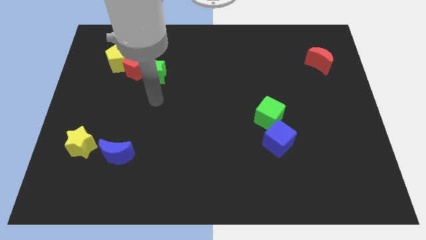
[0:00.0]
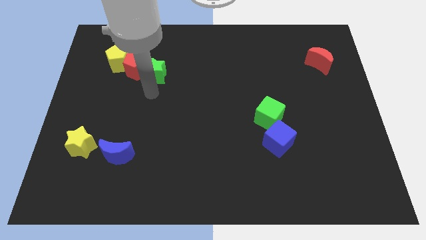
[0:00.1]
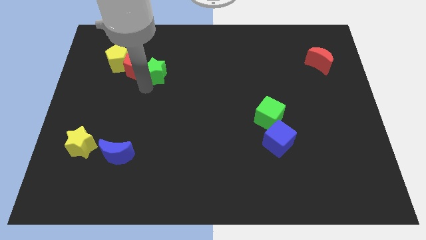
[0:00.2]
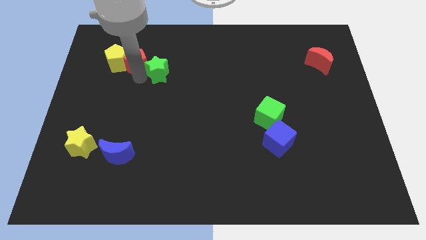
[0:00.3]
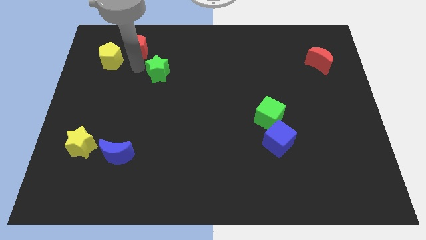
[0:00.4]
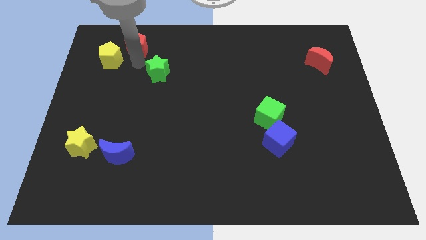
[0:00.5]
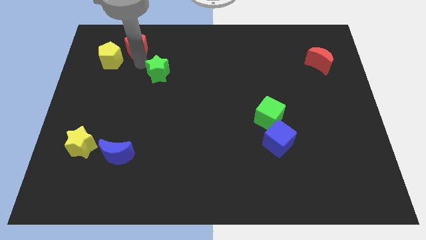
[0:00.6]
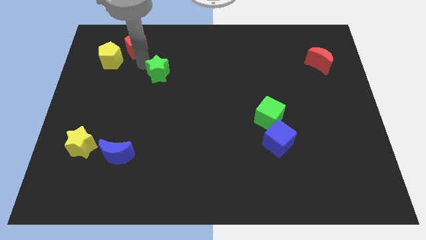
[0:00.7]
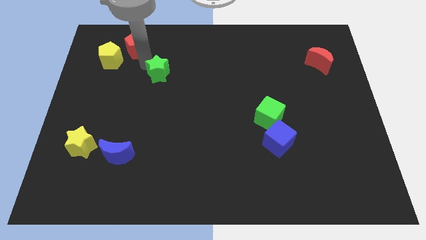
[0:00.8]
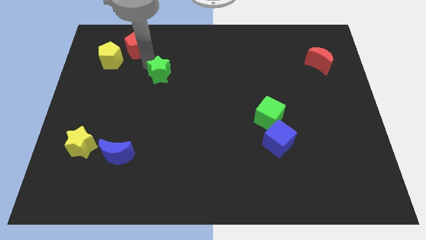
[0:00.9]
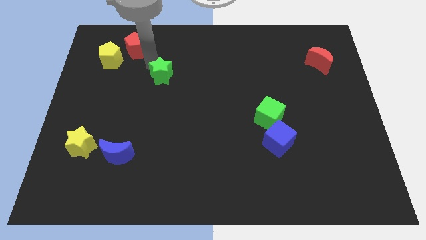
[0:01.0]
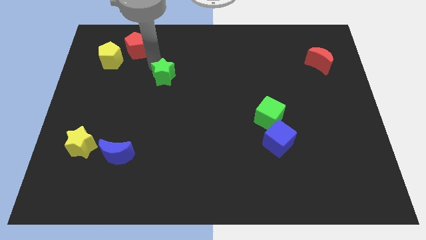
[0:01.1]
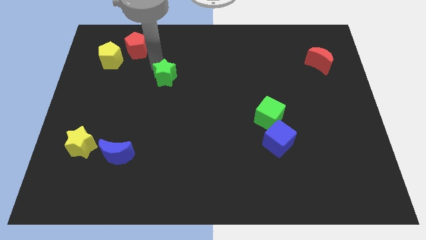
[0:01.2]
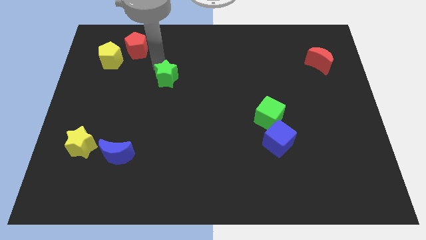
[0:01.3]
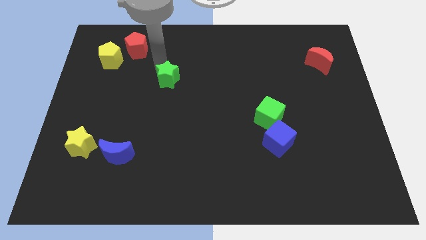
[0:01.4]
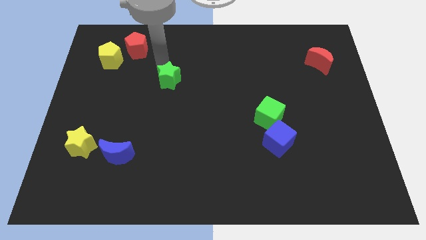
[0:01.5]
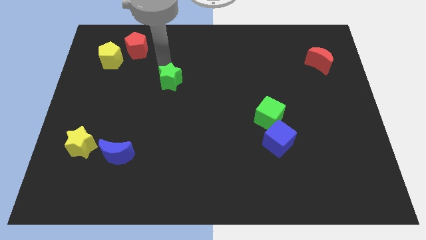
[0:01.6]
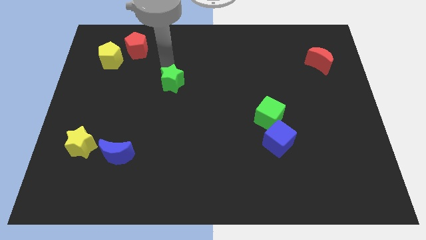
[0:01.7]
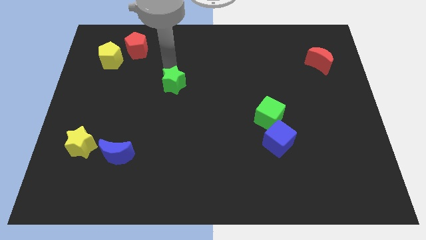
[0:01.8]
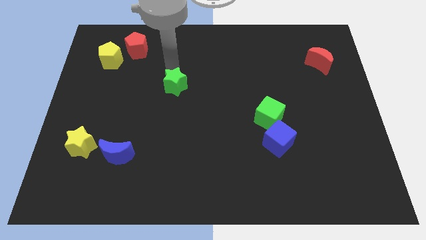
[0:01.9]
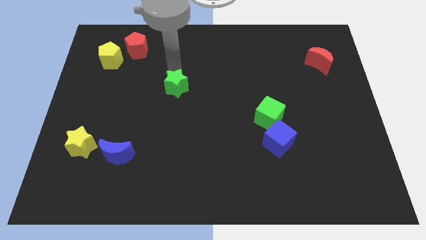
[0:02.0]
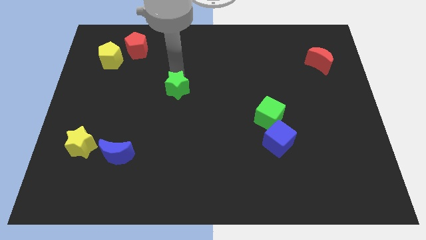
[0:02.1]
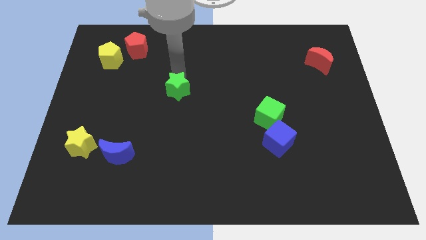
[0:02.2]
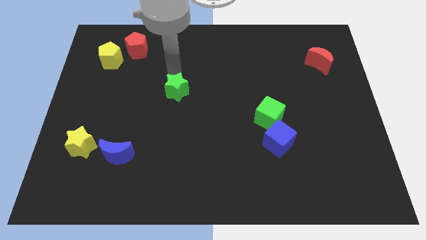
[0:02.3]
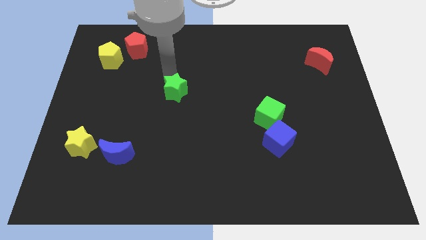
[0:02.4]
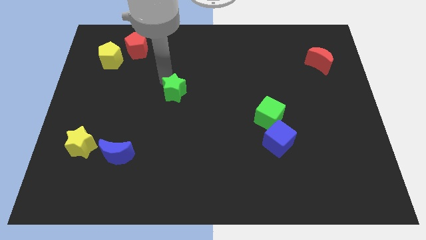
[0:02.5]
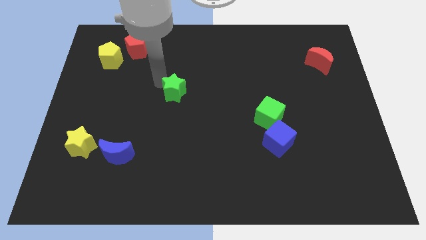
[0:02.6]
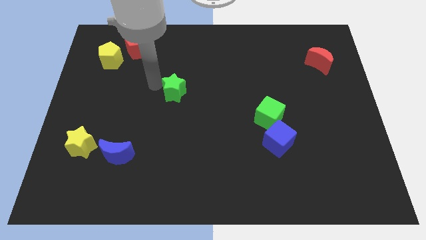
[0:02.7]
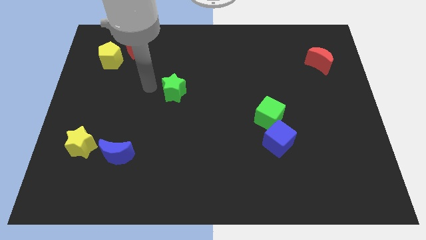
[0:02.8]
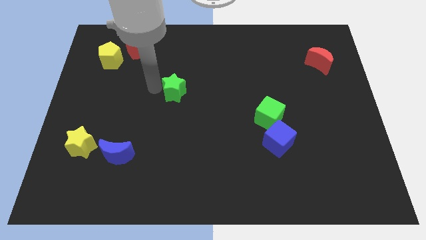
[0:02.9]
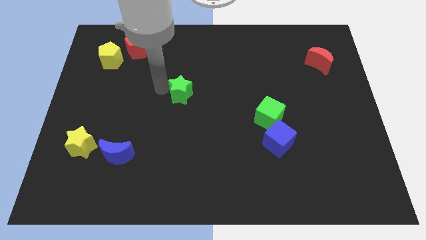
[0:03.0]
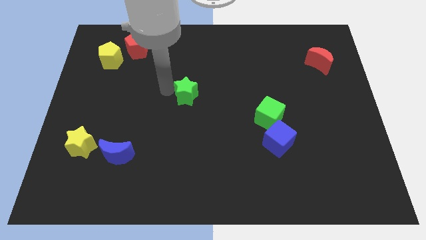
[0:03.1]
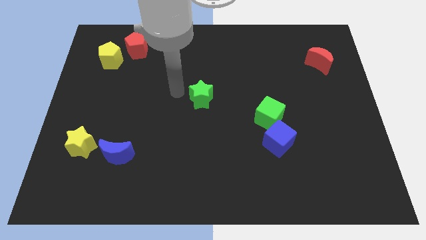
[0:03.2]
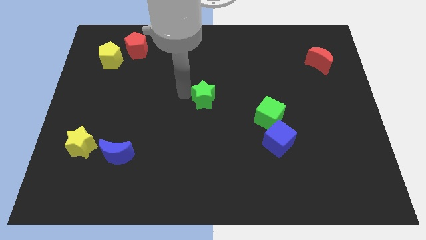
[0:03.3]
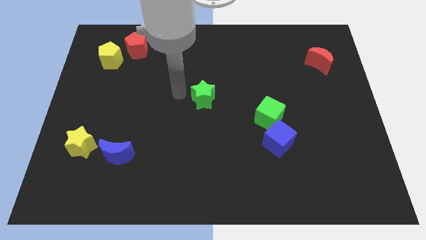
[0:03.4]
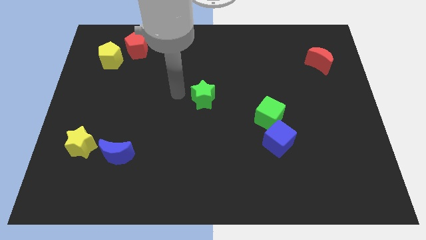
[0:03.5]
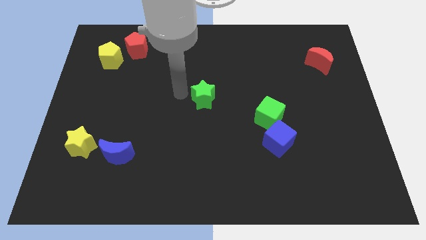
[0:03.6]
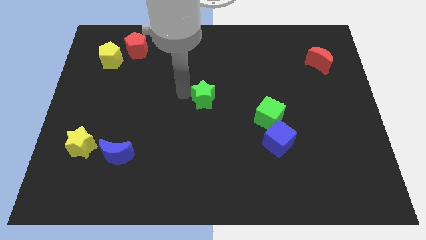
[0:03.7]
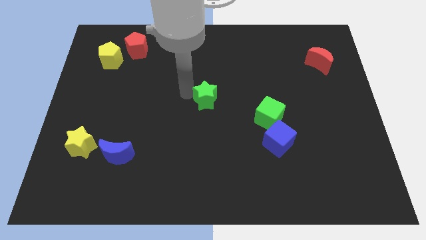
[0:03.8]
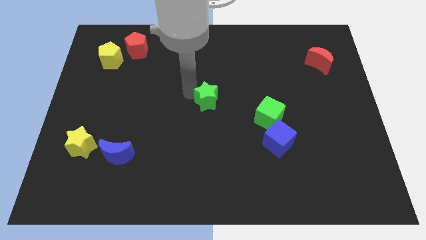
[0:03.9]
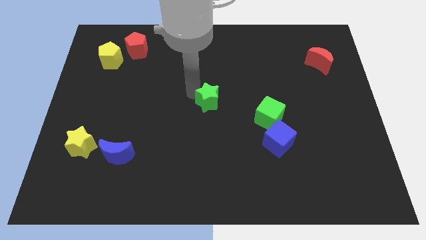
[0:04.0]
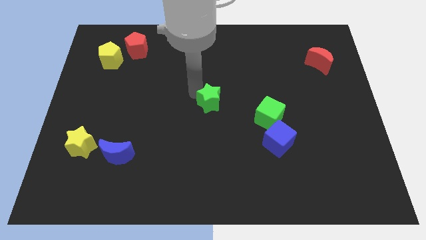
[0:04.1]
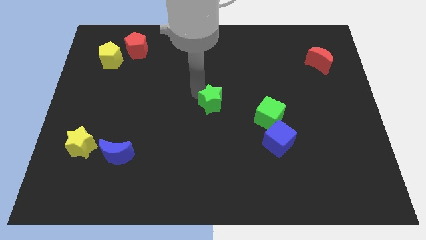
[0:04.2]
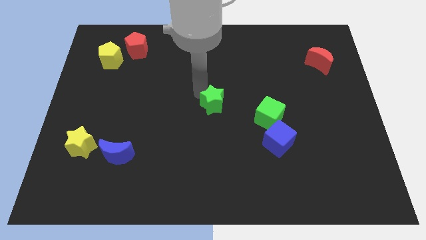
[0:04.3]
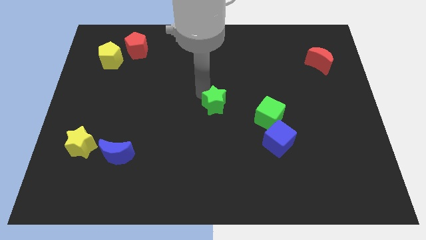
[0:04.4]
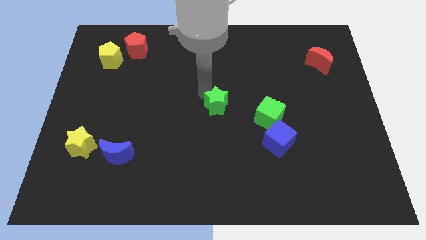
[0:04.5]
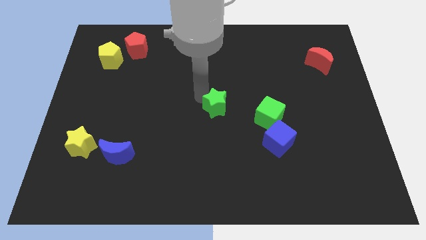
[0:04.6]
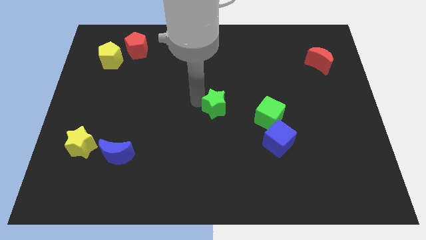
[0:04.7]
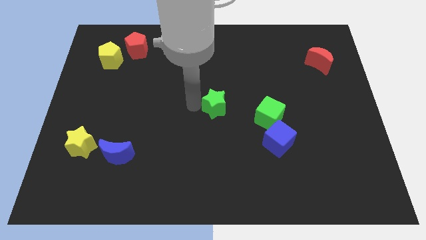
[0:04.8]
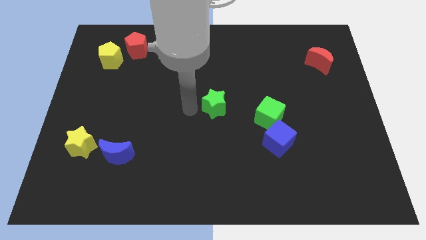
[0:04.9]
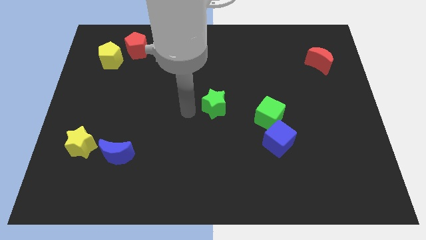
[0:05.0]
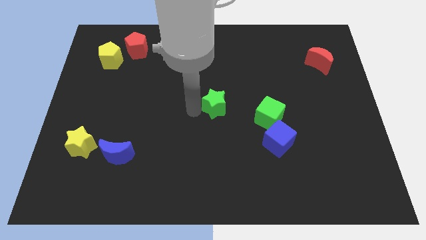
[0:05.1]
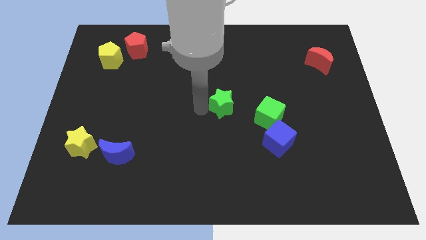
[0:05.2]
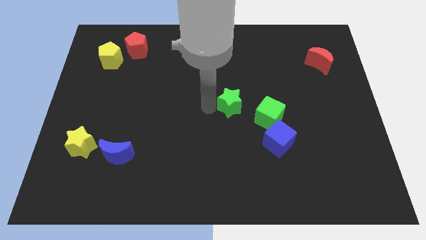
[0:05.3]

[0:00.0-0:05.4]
move the green star to the top left side of the green cube

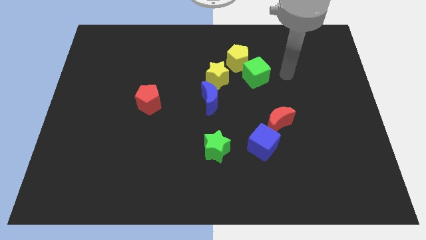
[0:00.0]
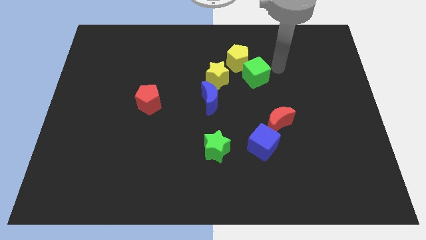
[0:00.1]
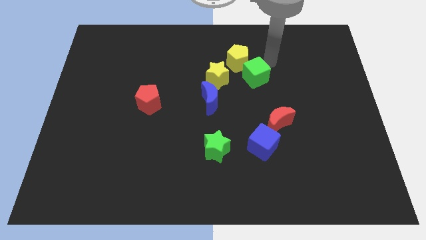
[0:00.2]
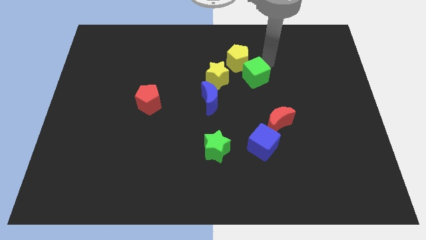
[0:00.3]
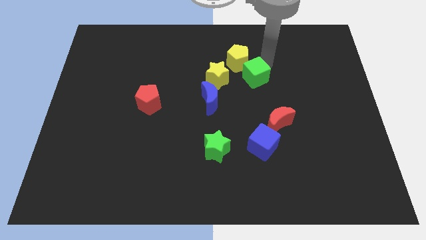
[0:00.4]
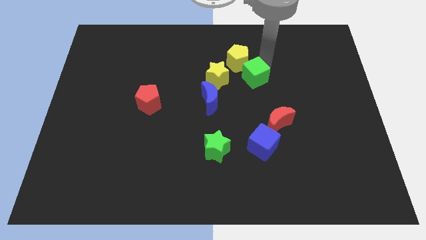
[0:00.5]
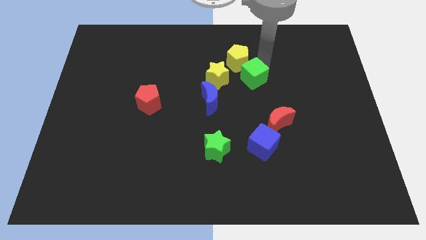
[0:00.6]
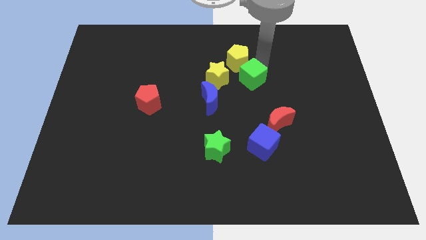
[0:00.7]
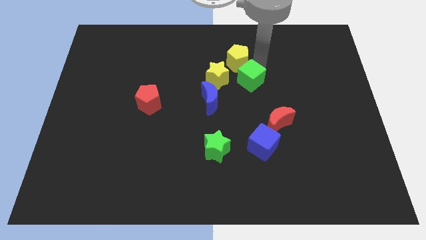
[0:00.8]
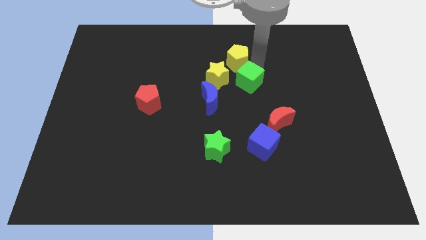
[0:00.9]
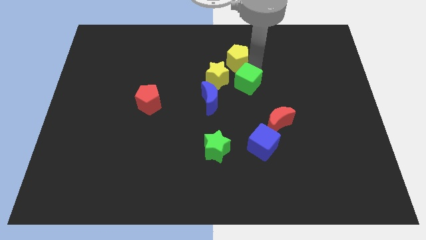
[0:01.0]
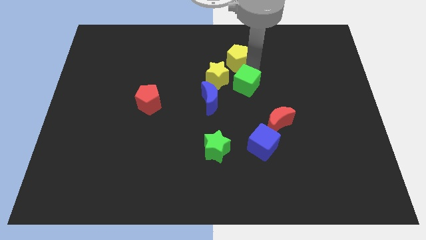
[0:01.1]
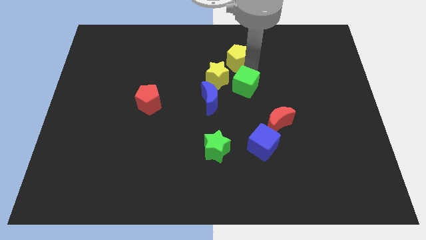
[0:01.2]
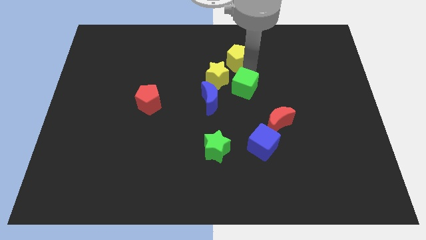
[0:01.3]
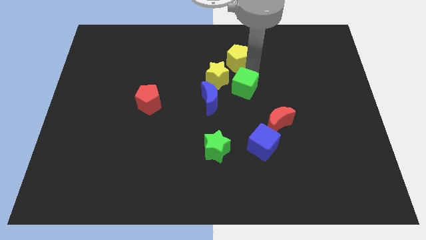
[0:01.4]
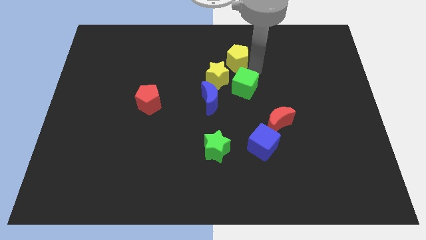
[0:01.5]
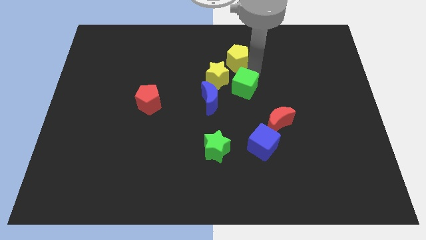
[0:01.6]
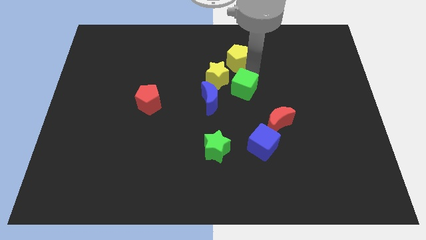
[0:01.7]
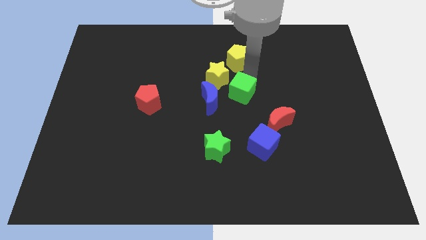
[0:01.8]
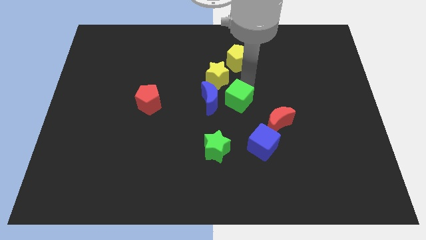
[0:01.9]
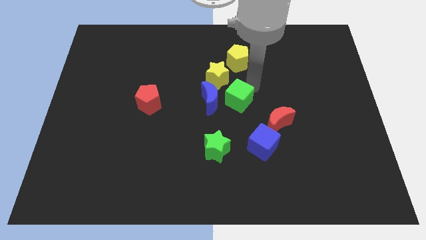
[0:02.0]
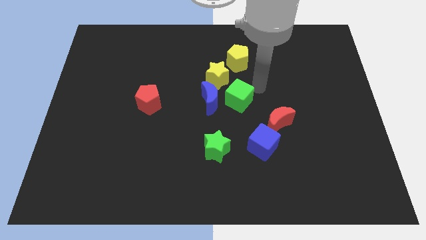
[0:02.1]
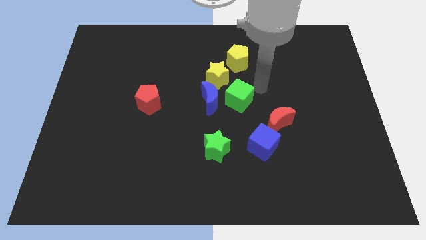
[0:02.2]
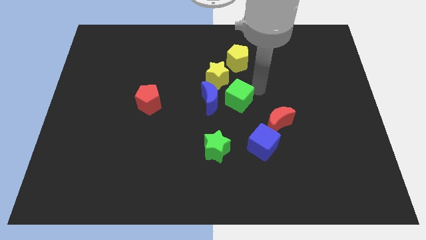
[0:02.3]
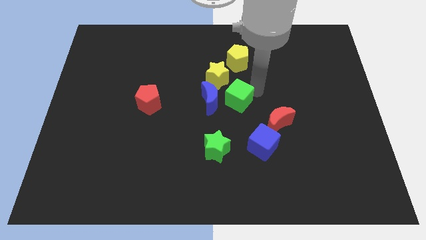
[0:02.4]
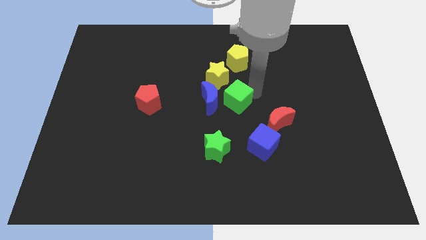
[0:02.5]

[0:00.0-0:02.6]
push the green cube to the bottom side of the yellow star
